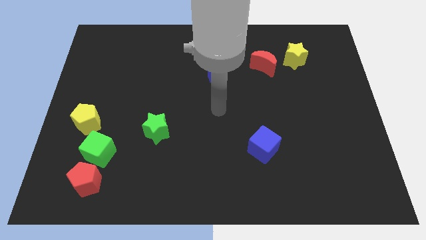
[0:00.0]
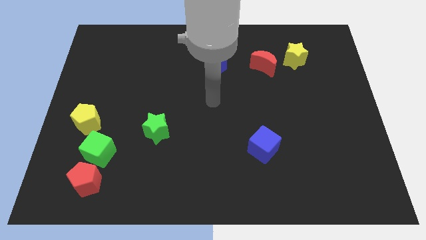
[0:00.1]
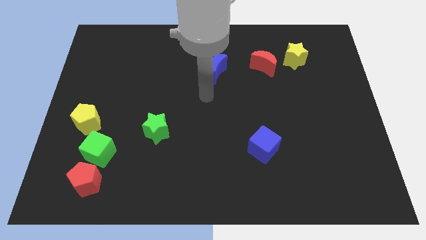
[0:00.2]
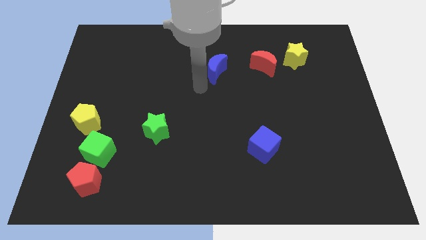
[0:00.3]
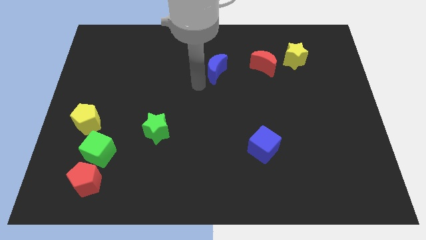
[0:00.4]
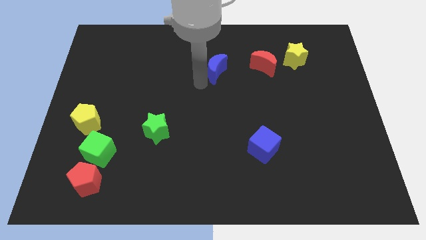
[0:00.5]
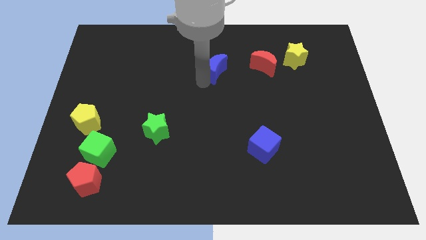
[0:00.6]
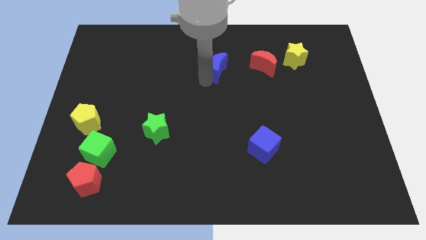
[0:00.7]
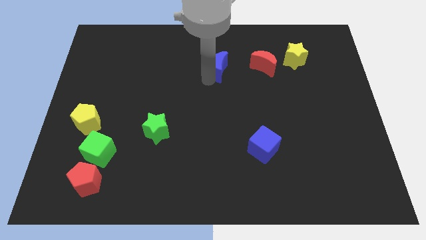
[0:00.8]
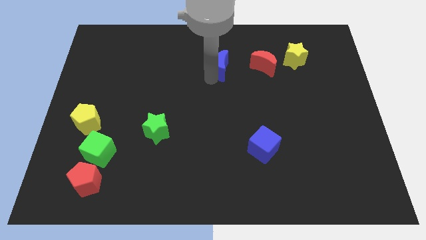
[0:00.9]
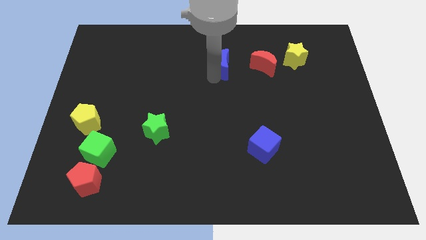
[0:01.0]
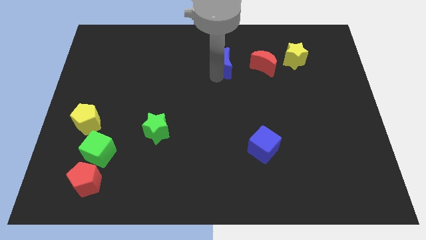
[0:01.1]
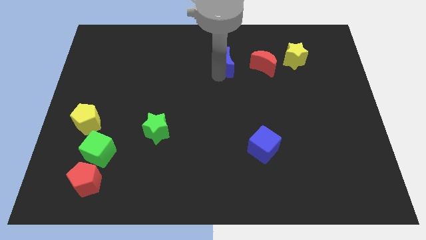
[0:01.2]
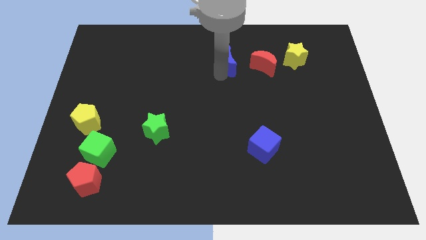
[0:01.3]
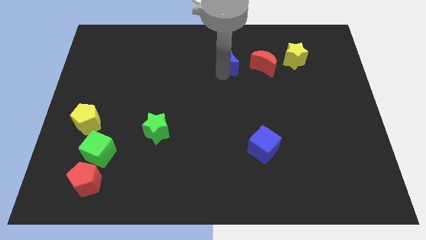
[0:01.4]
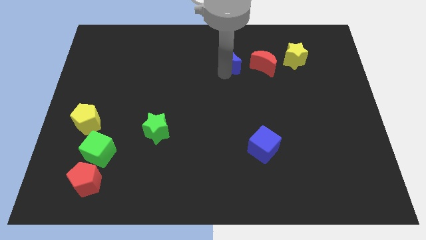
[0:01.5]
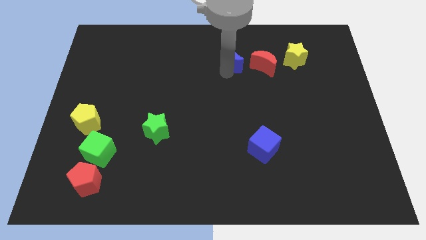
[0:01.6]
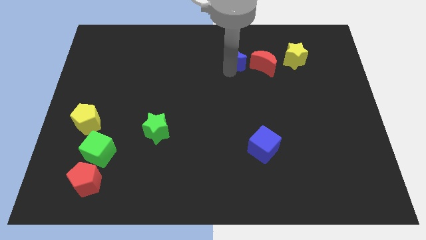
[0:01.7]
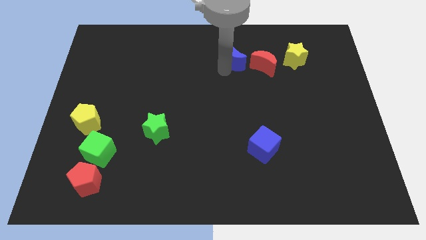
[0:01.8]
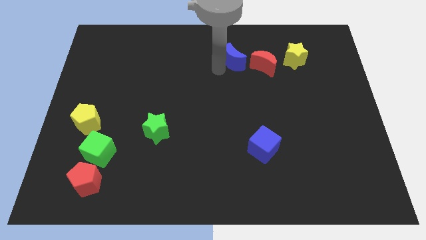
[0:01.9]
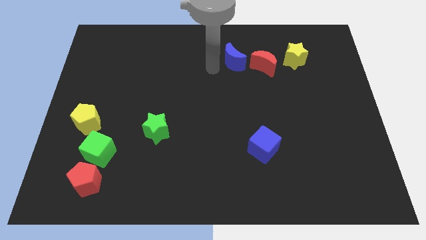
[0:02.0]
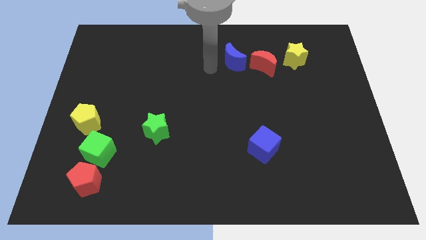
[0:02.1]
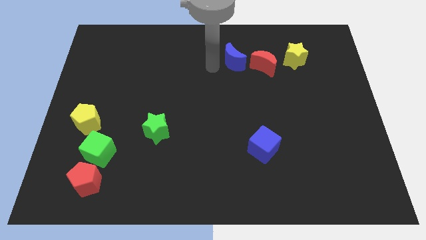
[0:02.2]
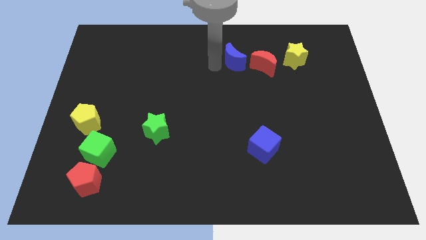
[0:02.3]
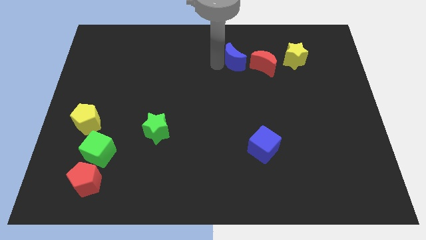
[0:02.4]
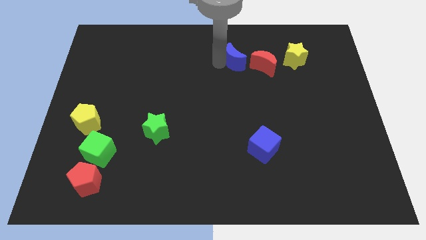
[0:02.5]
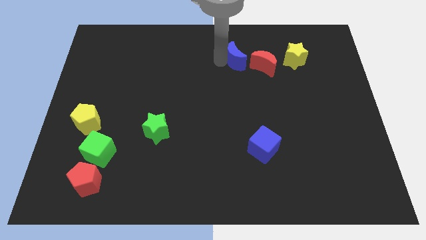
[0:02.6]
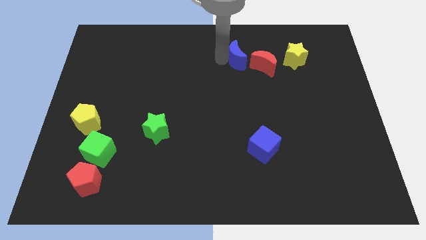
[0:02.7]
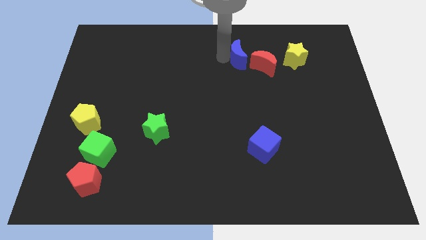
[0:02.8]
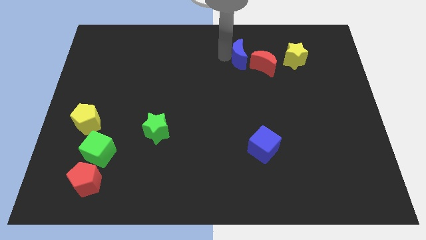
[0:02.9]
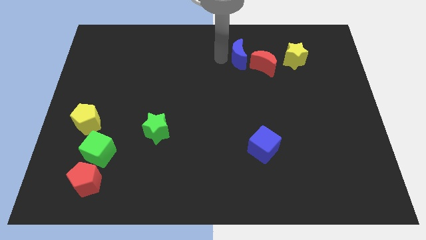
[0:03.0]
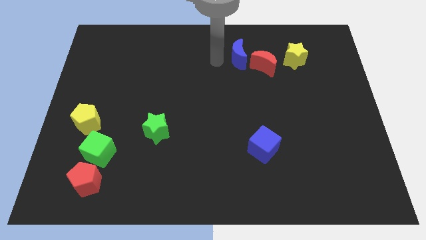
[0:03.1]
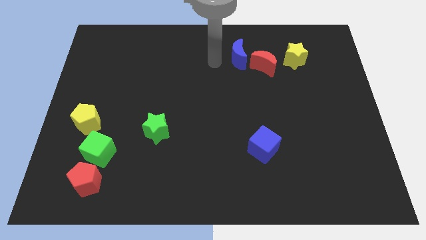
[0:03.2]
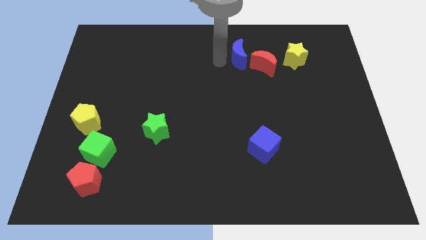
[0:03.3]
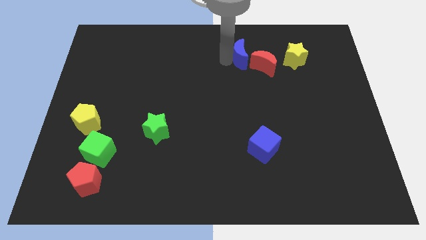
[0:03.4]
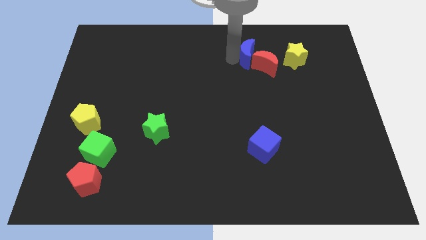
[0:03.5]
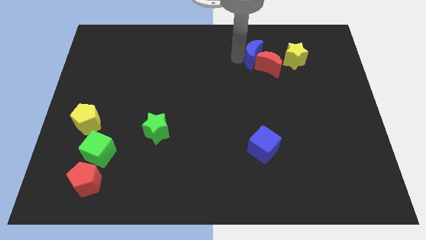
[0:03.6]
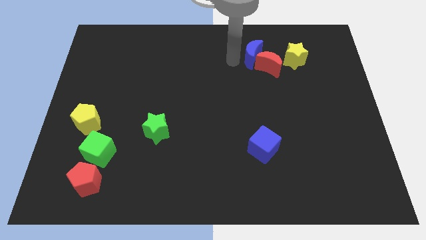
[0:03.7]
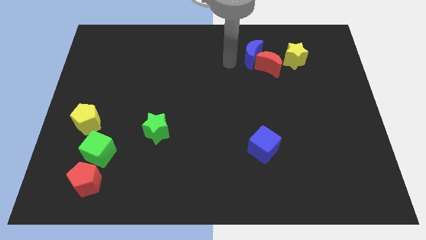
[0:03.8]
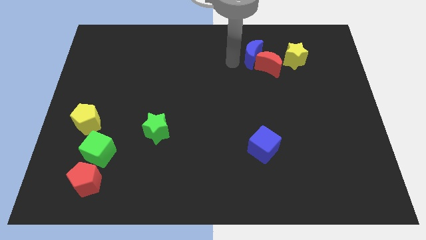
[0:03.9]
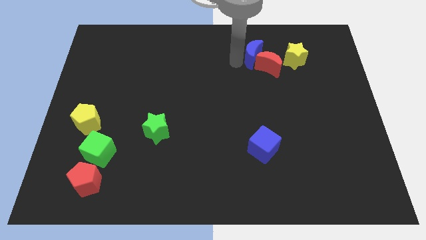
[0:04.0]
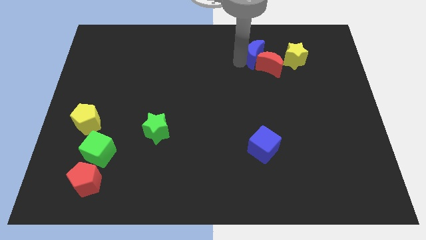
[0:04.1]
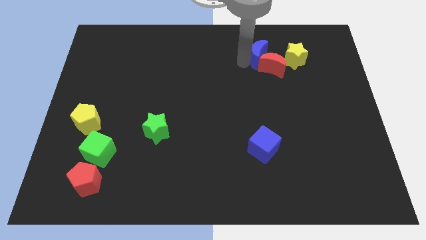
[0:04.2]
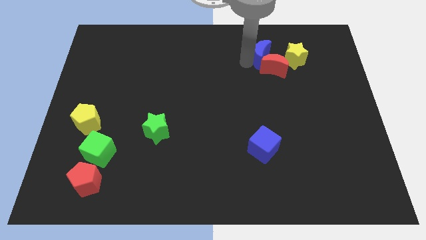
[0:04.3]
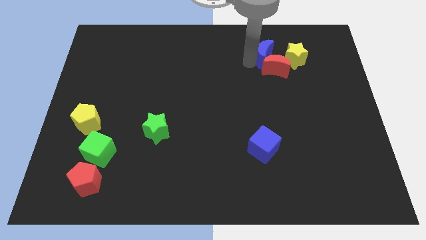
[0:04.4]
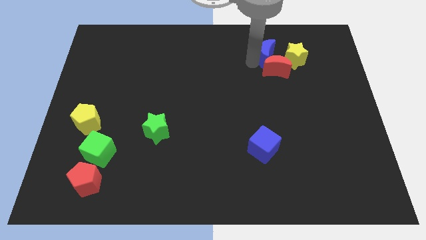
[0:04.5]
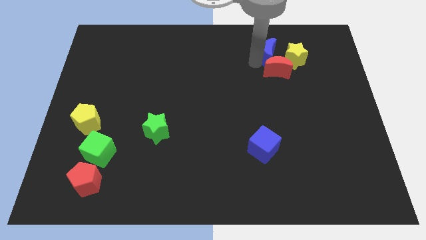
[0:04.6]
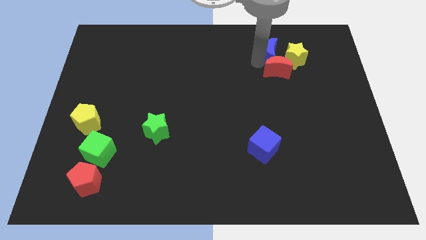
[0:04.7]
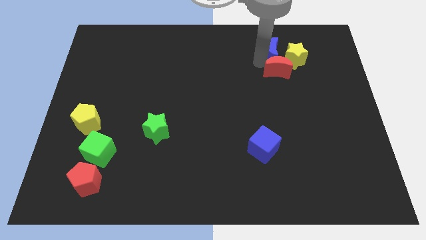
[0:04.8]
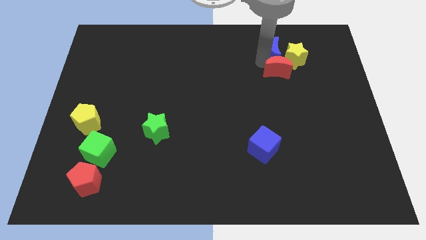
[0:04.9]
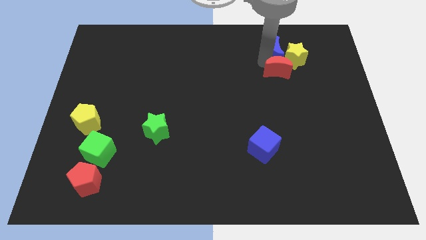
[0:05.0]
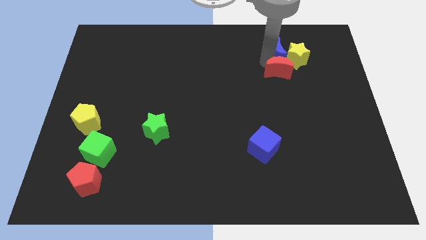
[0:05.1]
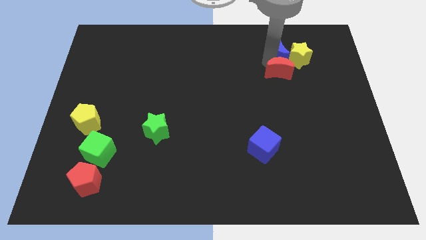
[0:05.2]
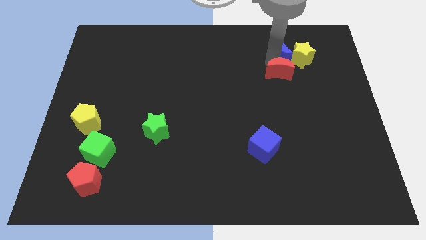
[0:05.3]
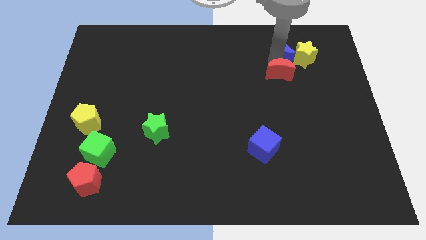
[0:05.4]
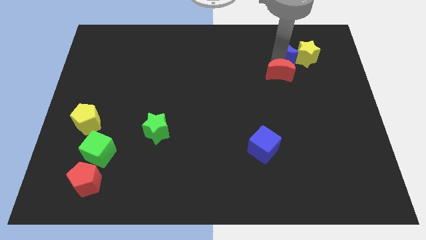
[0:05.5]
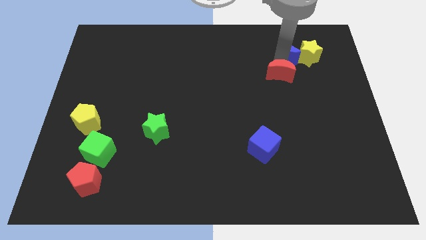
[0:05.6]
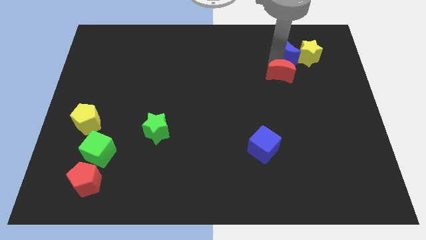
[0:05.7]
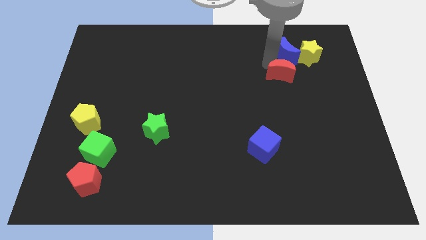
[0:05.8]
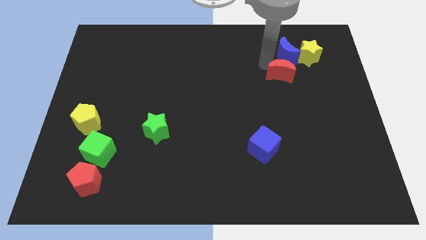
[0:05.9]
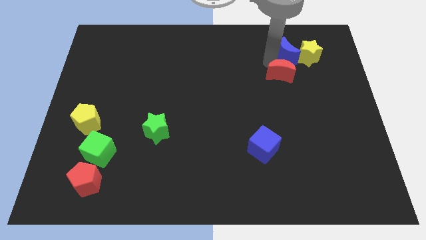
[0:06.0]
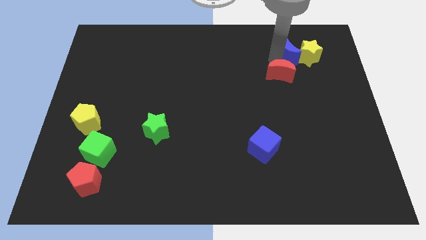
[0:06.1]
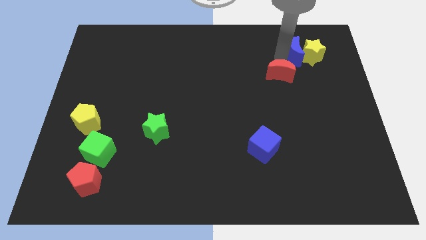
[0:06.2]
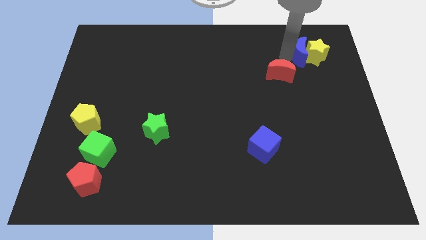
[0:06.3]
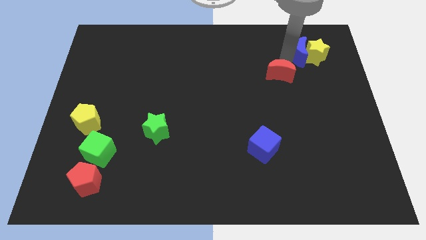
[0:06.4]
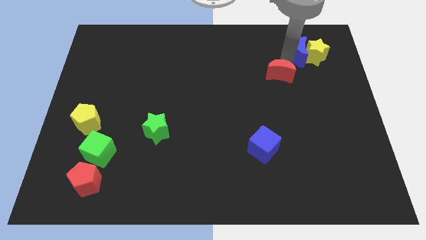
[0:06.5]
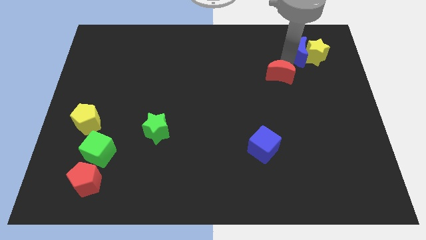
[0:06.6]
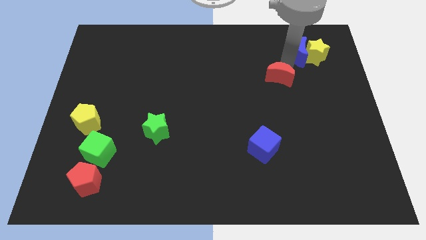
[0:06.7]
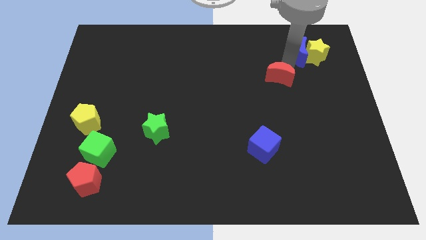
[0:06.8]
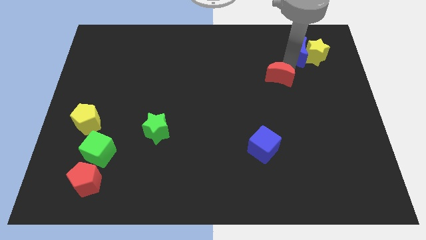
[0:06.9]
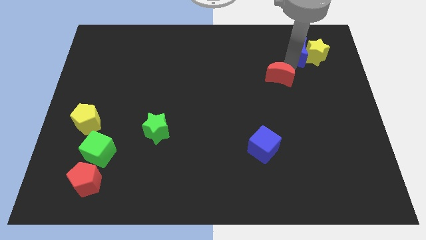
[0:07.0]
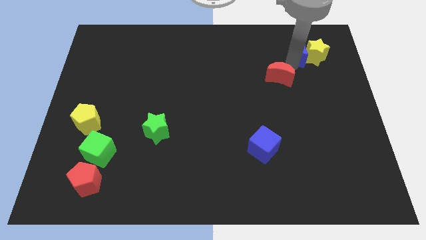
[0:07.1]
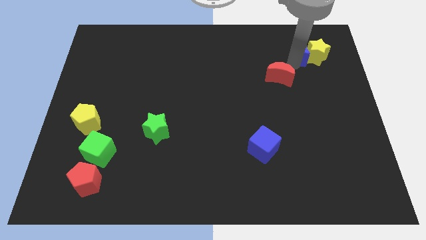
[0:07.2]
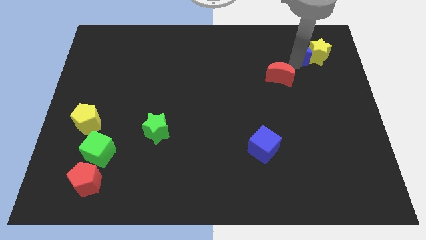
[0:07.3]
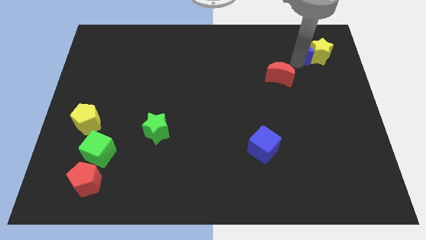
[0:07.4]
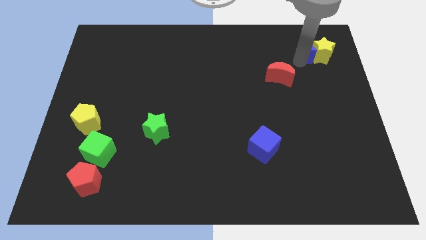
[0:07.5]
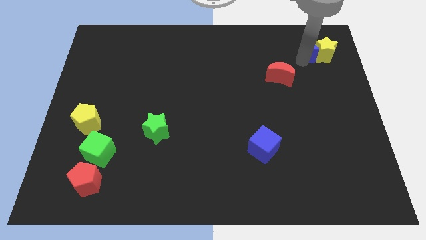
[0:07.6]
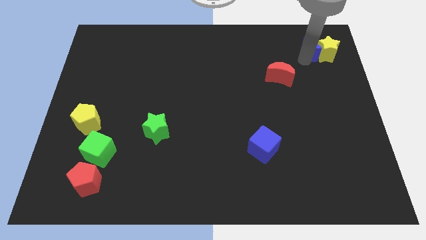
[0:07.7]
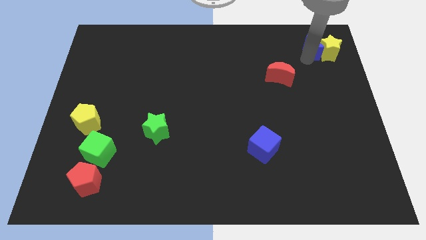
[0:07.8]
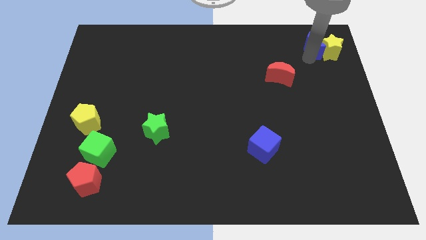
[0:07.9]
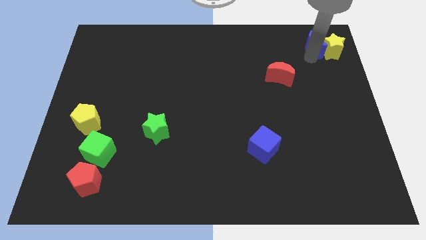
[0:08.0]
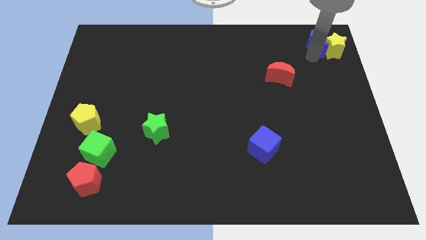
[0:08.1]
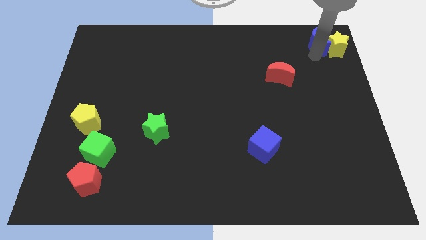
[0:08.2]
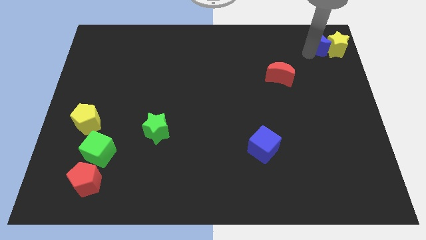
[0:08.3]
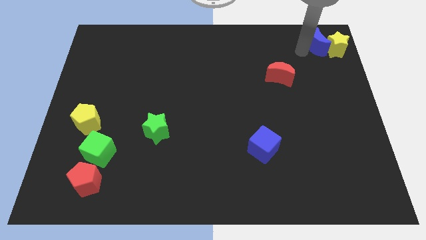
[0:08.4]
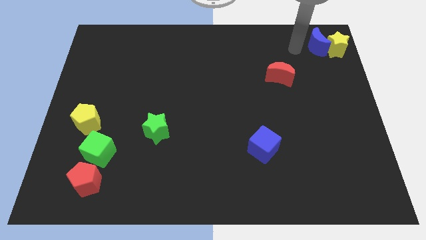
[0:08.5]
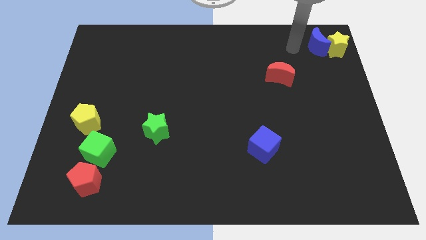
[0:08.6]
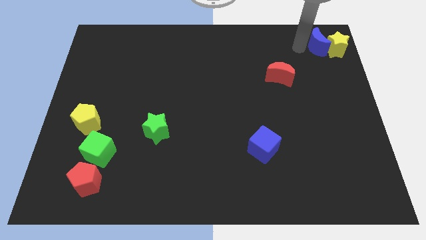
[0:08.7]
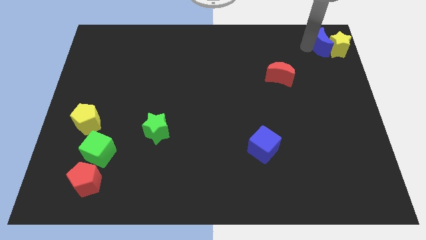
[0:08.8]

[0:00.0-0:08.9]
put the blue moon to the upper right corner
